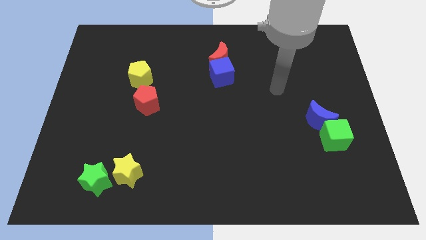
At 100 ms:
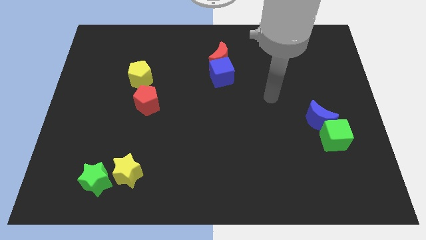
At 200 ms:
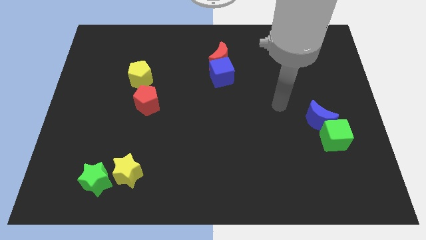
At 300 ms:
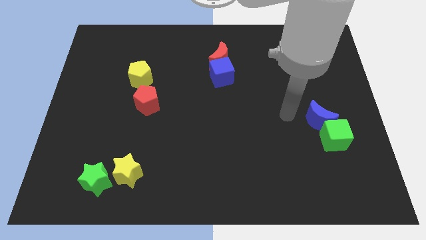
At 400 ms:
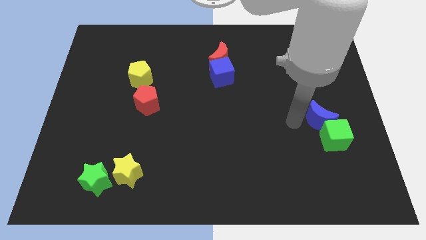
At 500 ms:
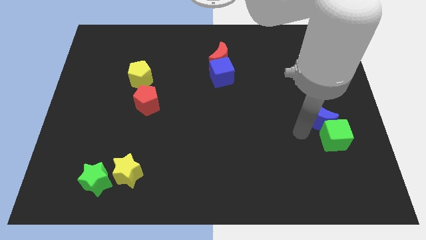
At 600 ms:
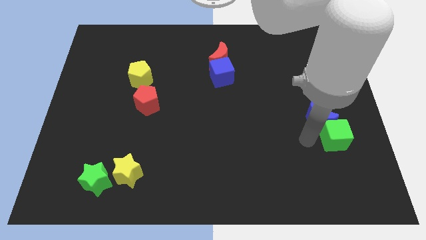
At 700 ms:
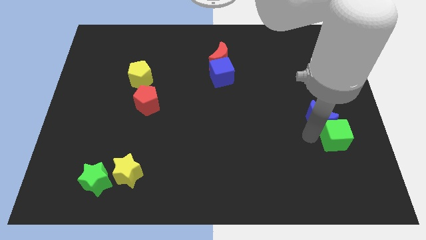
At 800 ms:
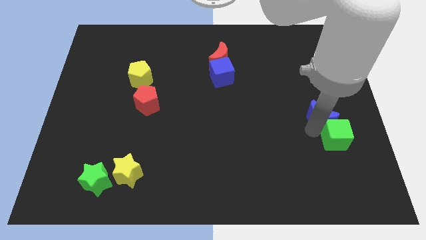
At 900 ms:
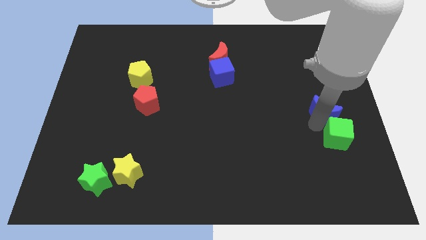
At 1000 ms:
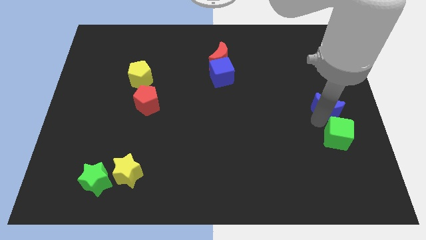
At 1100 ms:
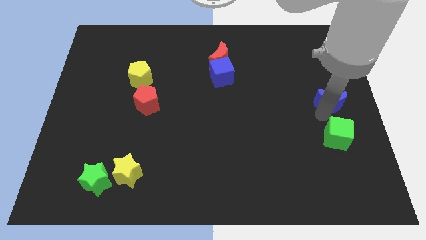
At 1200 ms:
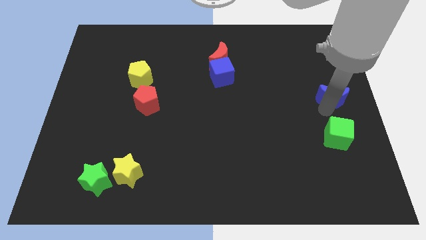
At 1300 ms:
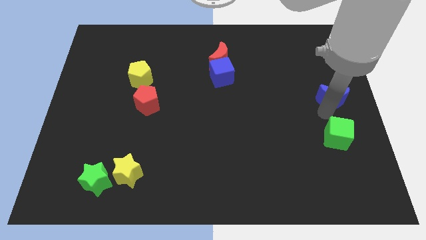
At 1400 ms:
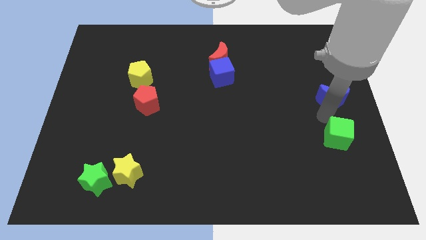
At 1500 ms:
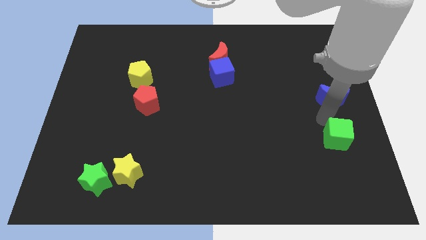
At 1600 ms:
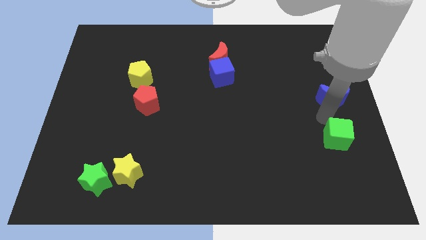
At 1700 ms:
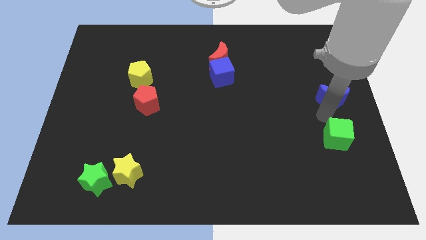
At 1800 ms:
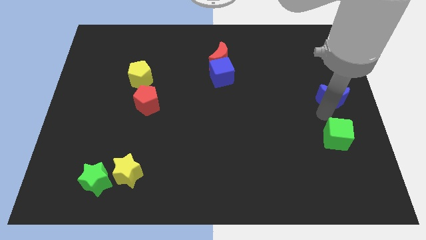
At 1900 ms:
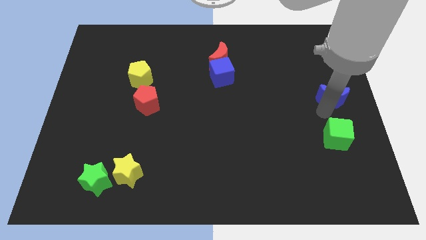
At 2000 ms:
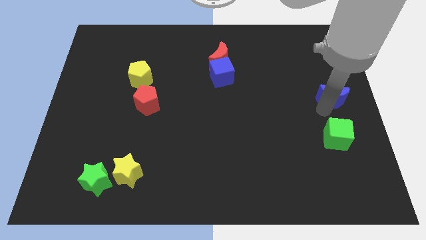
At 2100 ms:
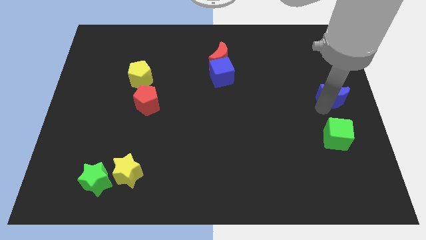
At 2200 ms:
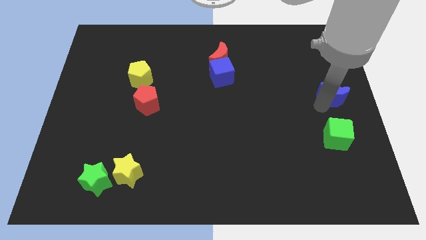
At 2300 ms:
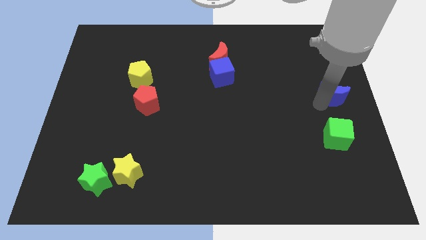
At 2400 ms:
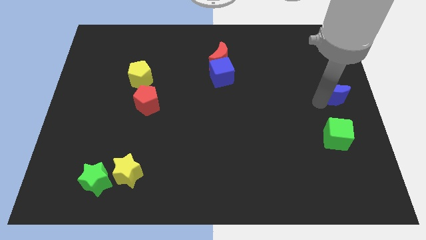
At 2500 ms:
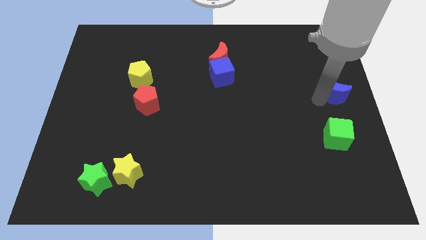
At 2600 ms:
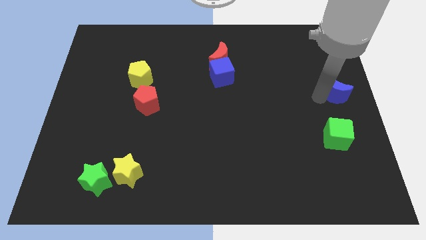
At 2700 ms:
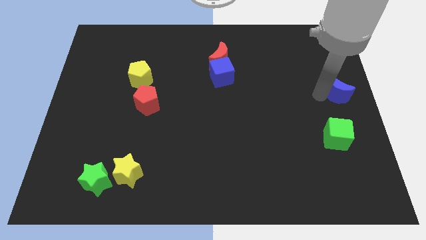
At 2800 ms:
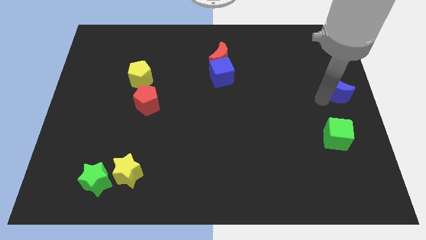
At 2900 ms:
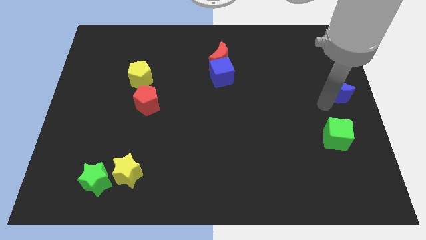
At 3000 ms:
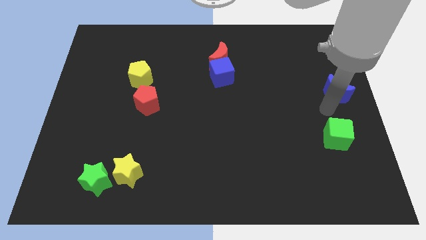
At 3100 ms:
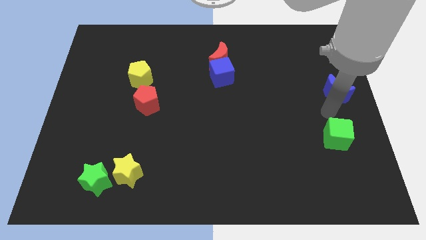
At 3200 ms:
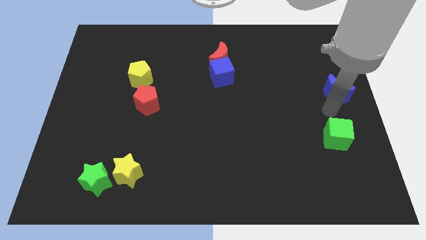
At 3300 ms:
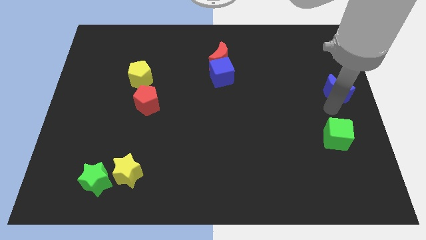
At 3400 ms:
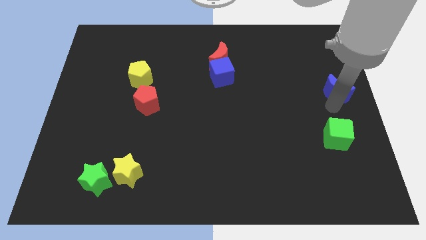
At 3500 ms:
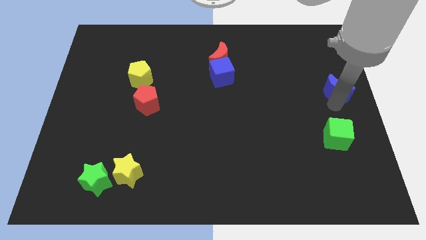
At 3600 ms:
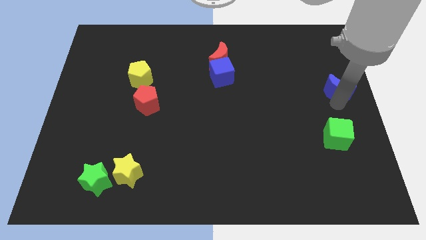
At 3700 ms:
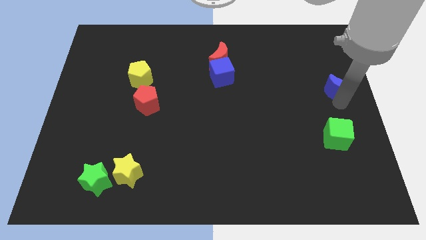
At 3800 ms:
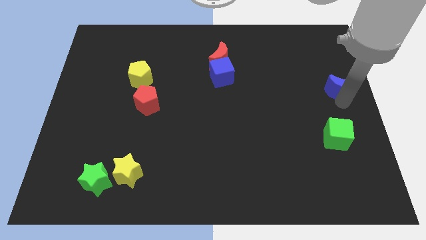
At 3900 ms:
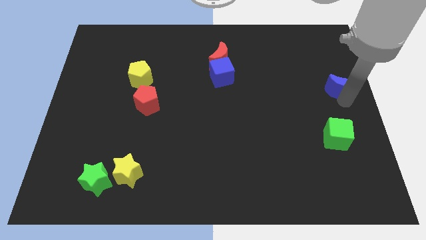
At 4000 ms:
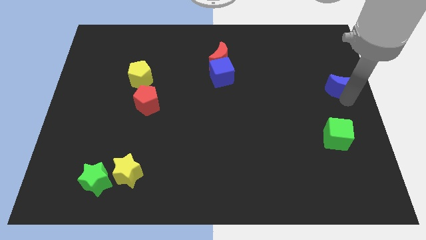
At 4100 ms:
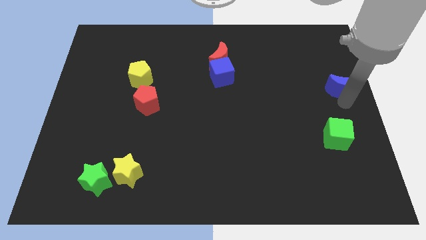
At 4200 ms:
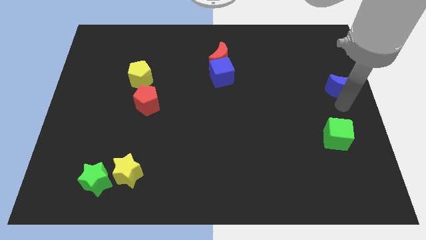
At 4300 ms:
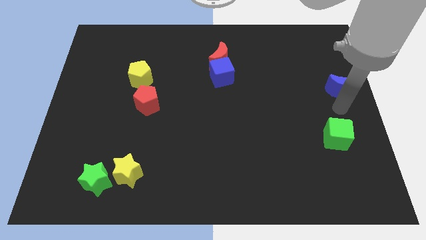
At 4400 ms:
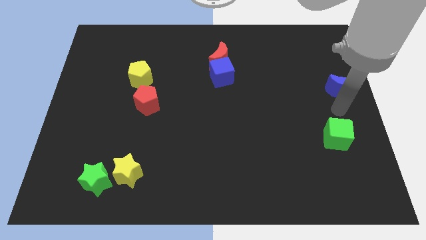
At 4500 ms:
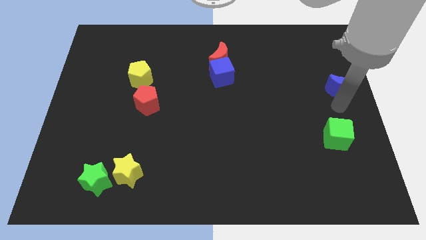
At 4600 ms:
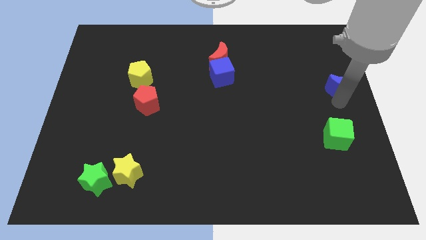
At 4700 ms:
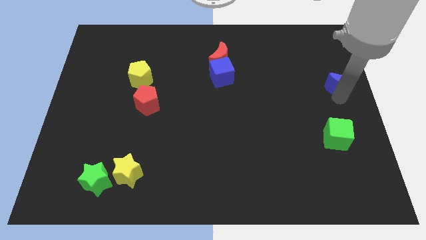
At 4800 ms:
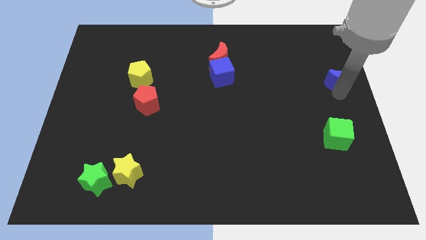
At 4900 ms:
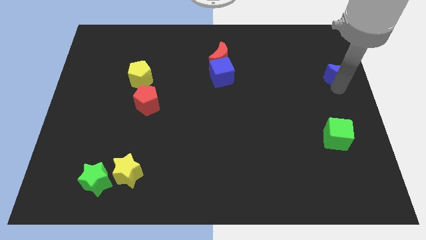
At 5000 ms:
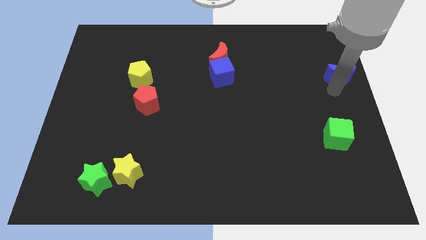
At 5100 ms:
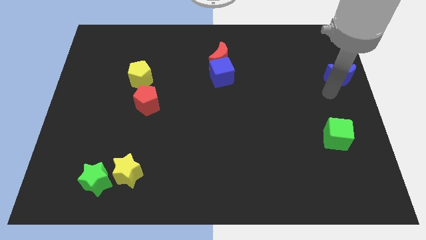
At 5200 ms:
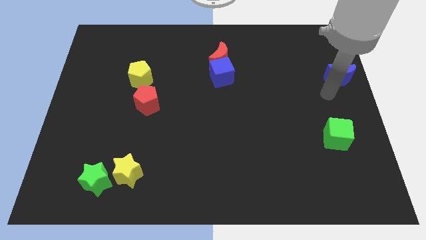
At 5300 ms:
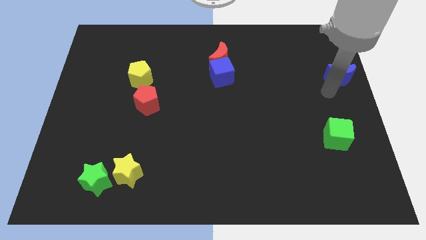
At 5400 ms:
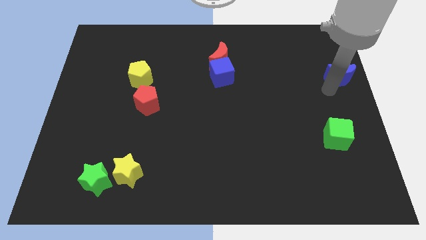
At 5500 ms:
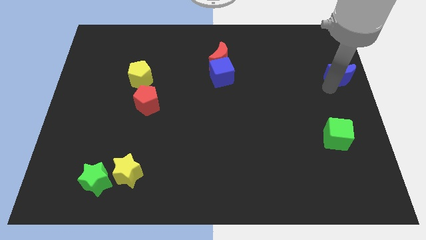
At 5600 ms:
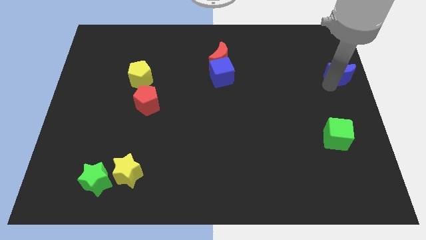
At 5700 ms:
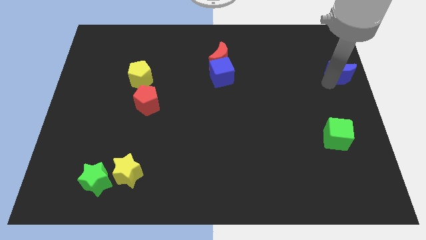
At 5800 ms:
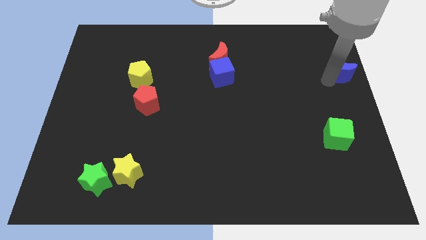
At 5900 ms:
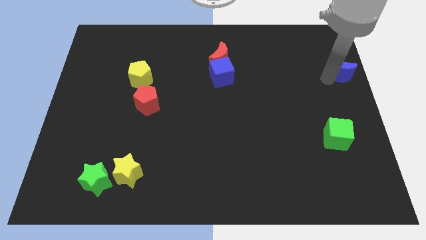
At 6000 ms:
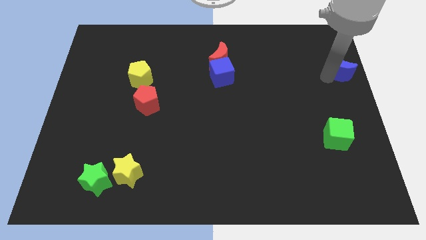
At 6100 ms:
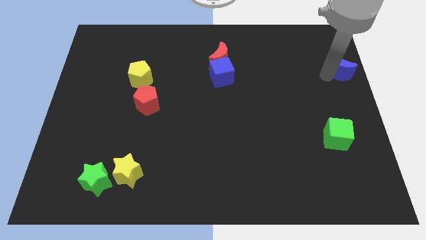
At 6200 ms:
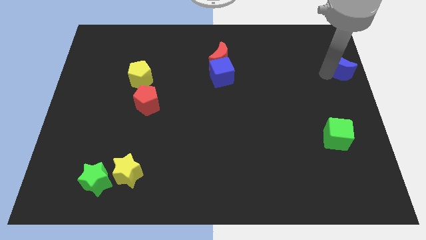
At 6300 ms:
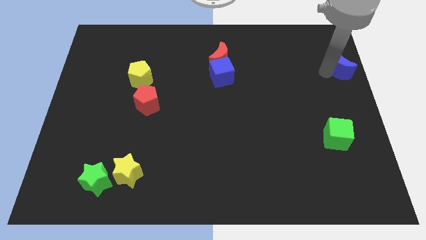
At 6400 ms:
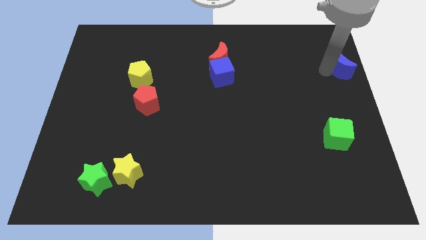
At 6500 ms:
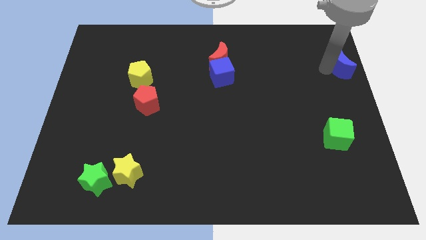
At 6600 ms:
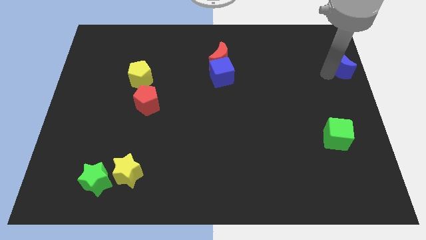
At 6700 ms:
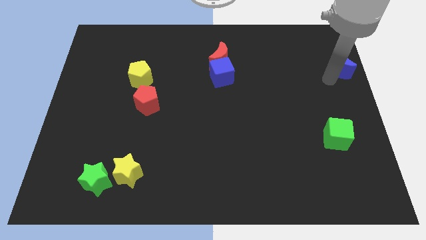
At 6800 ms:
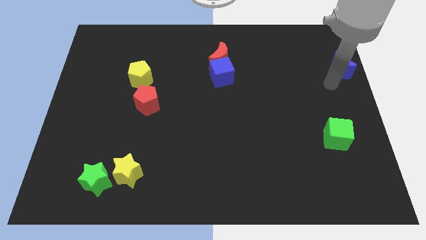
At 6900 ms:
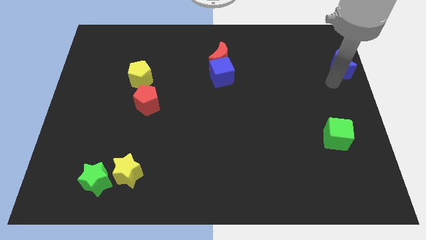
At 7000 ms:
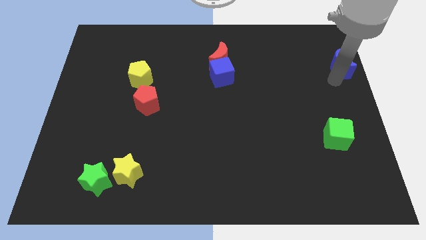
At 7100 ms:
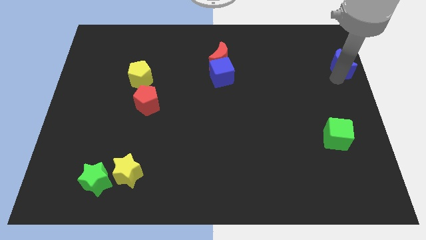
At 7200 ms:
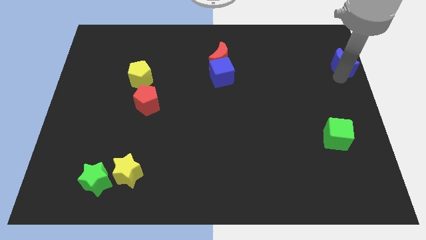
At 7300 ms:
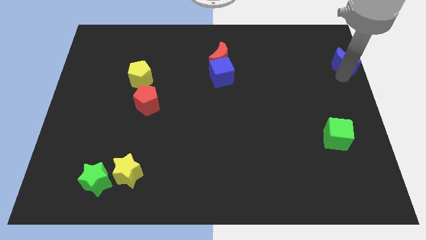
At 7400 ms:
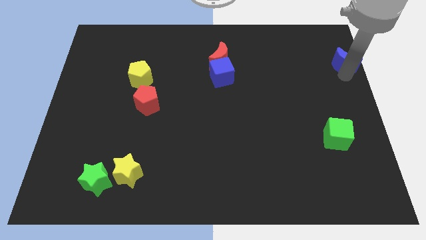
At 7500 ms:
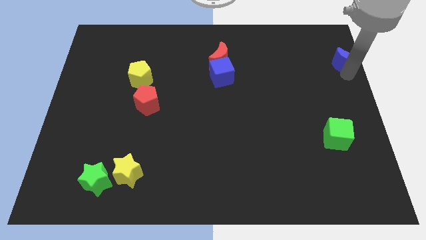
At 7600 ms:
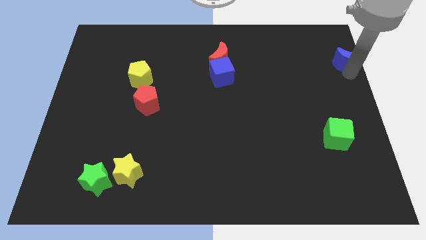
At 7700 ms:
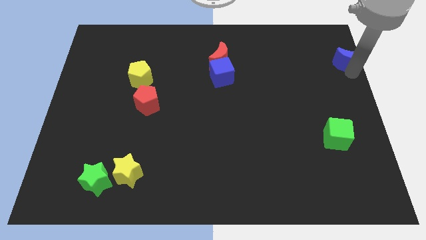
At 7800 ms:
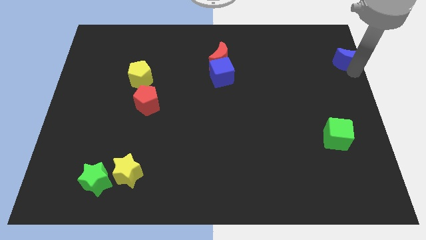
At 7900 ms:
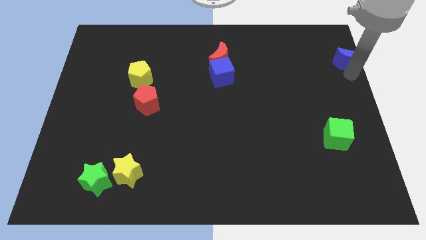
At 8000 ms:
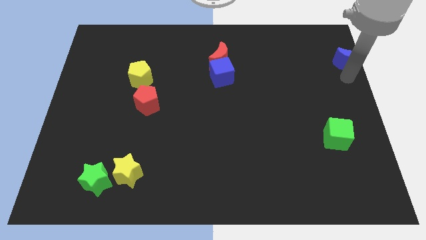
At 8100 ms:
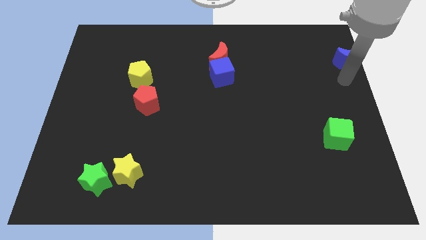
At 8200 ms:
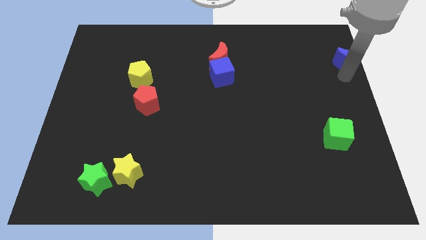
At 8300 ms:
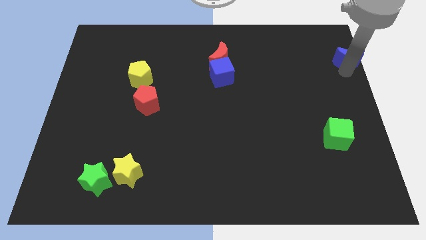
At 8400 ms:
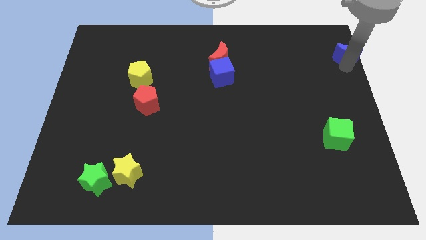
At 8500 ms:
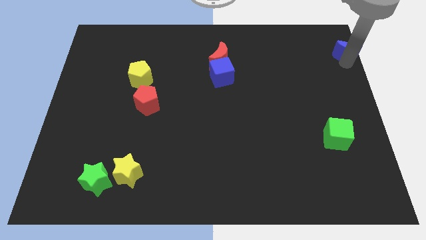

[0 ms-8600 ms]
push the blue moon to the top right of the board
